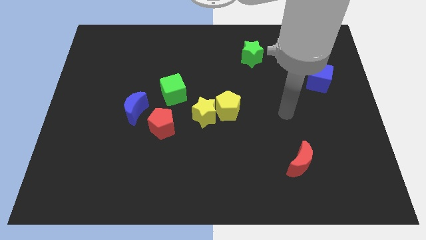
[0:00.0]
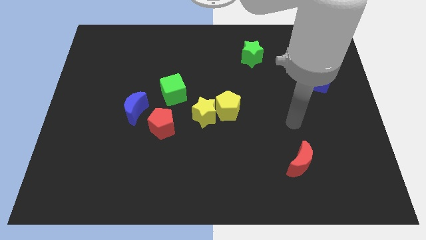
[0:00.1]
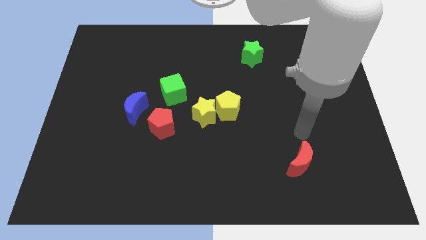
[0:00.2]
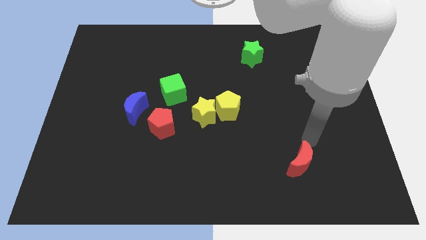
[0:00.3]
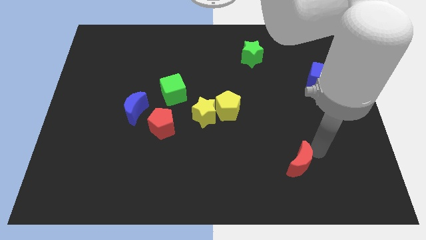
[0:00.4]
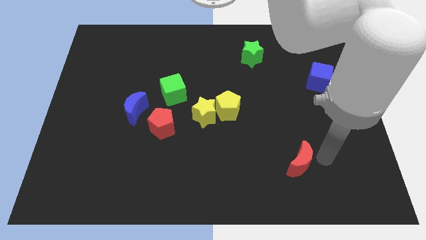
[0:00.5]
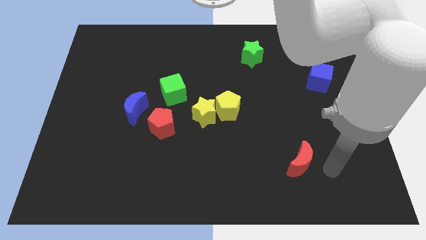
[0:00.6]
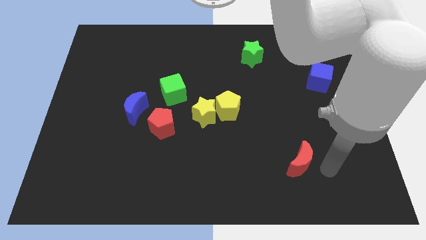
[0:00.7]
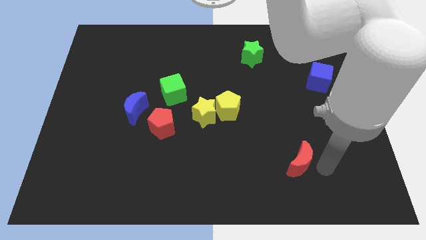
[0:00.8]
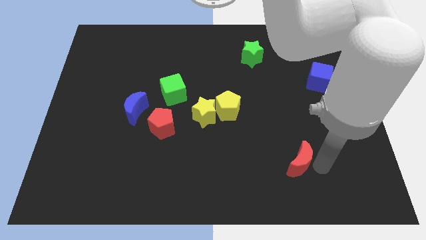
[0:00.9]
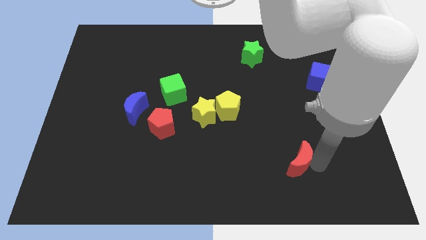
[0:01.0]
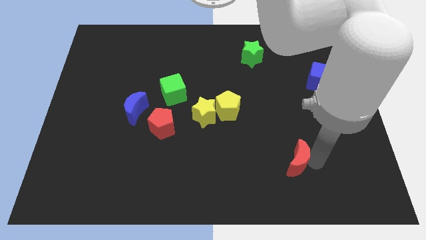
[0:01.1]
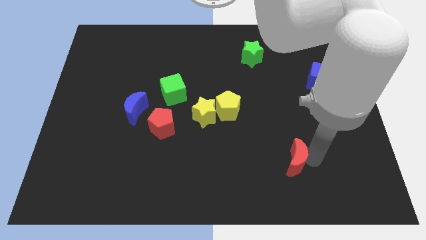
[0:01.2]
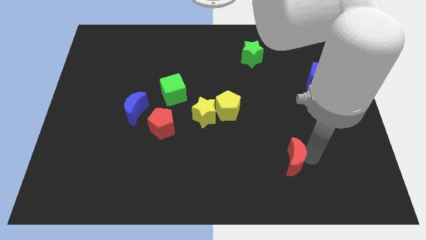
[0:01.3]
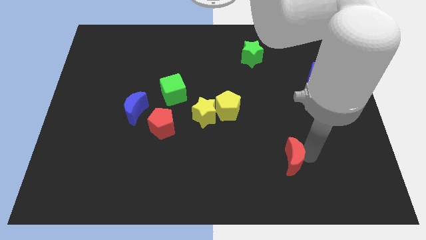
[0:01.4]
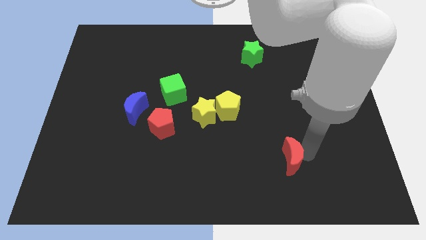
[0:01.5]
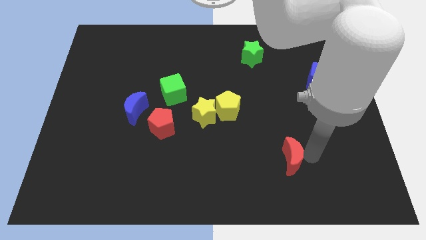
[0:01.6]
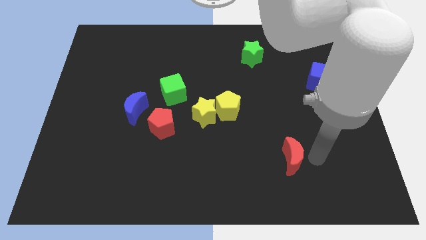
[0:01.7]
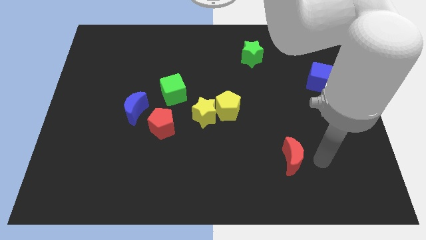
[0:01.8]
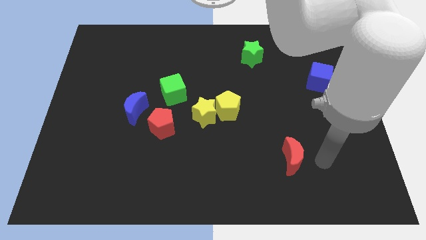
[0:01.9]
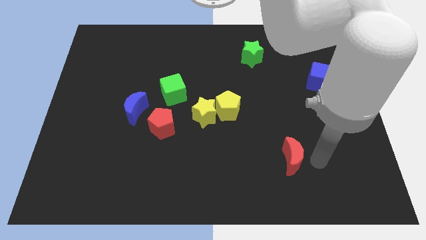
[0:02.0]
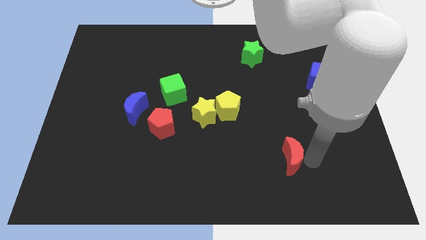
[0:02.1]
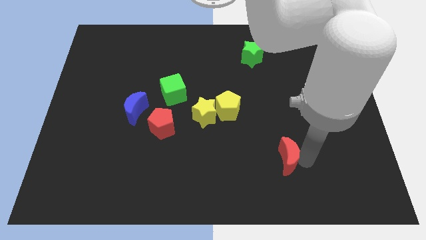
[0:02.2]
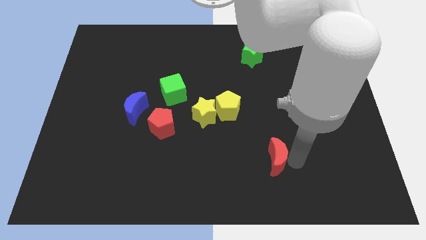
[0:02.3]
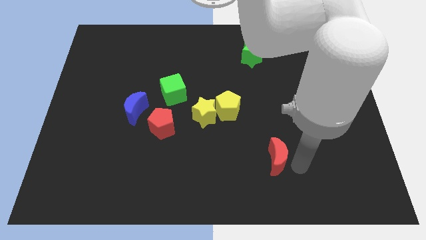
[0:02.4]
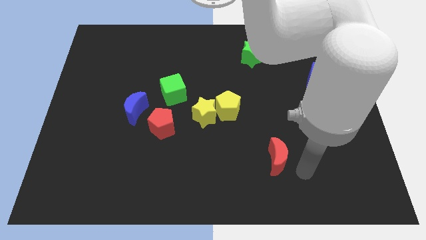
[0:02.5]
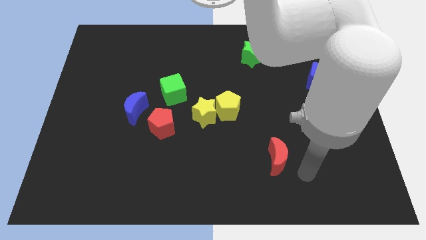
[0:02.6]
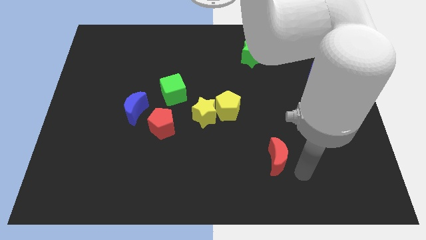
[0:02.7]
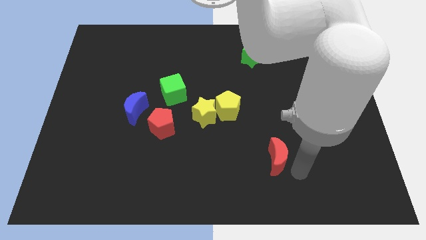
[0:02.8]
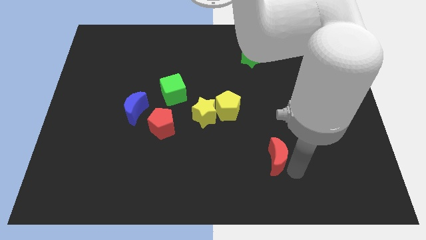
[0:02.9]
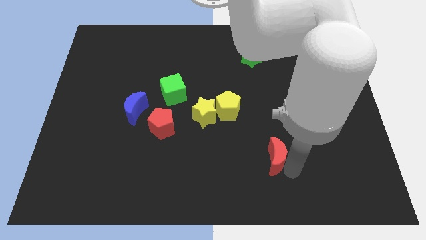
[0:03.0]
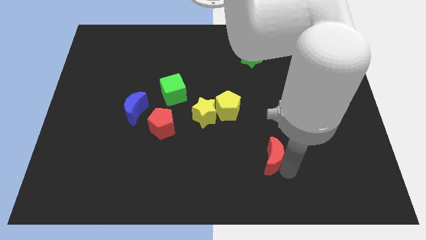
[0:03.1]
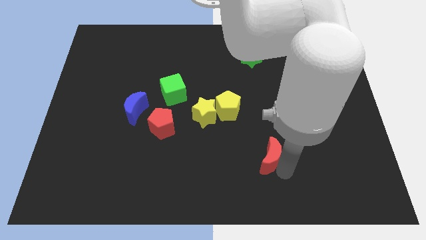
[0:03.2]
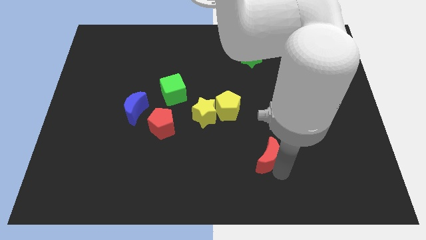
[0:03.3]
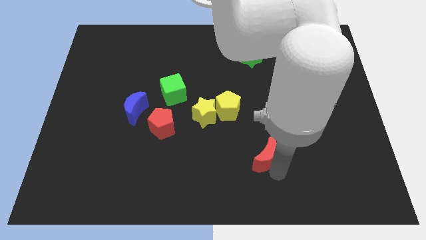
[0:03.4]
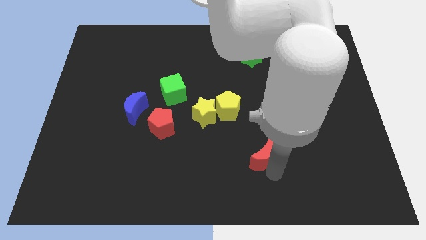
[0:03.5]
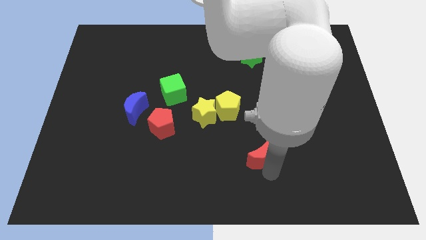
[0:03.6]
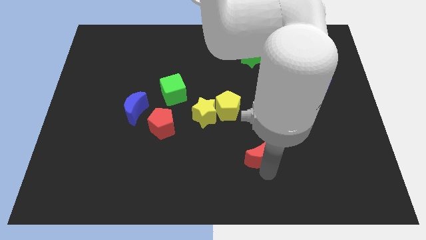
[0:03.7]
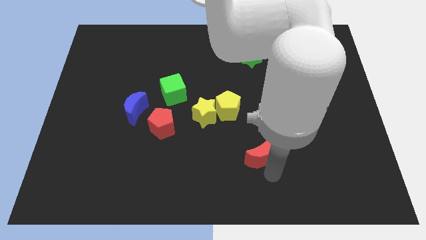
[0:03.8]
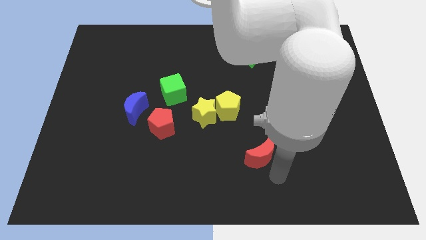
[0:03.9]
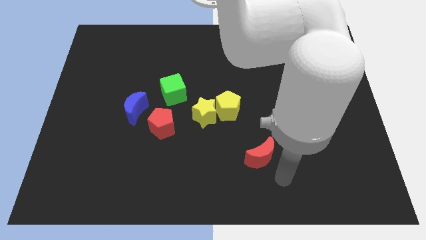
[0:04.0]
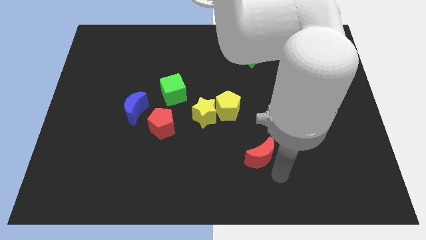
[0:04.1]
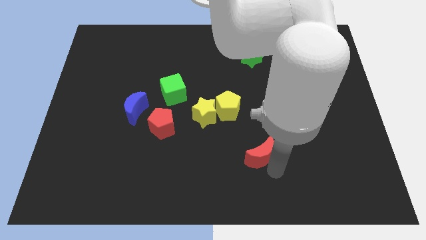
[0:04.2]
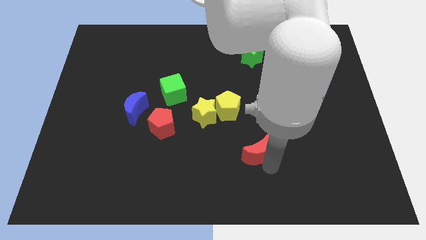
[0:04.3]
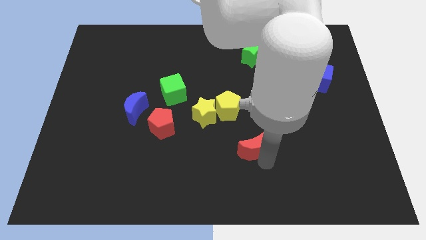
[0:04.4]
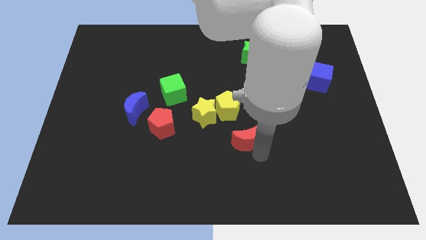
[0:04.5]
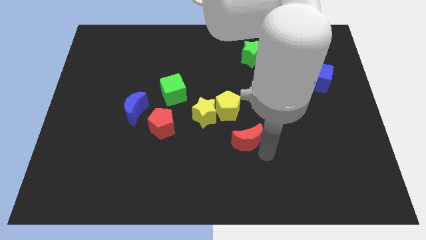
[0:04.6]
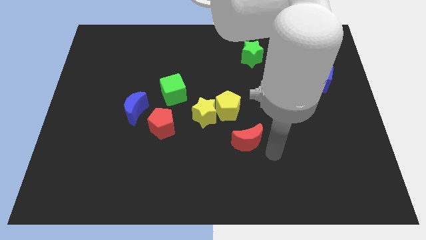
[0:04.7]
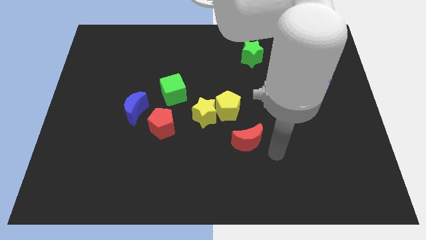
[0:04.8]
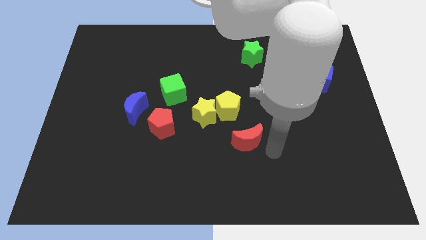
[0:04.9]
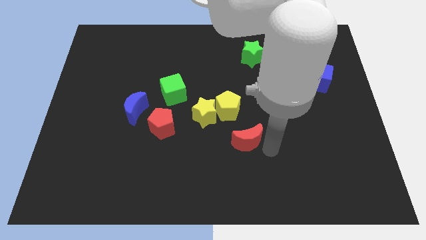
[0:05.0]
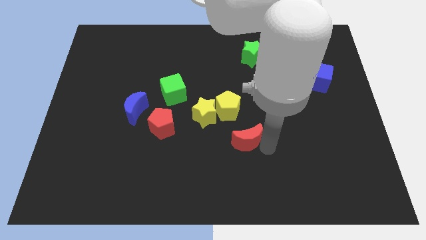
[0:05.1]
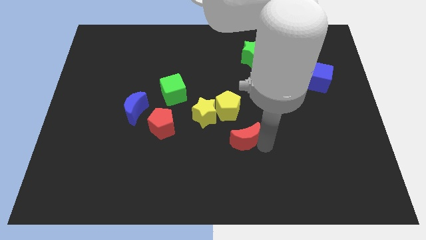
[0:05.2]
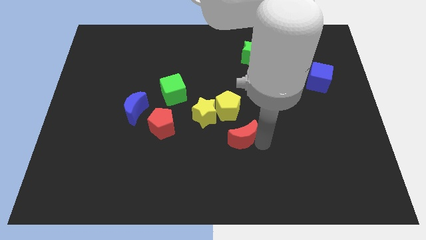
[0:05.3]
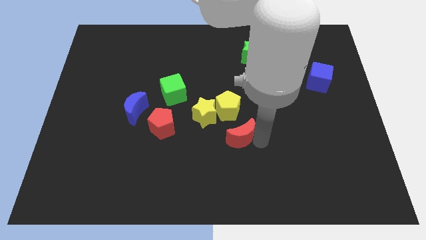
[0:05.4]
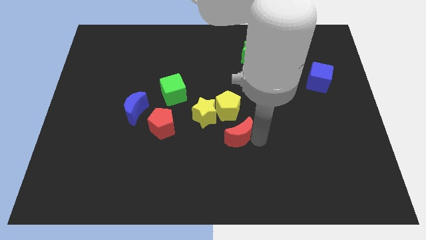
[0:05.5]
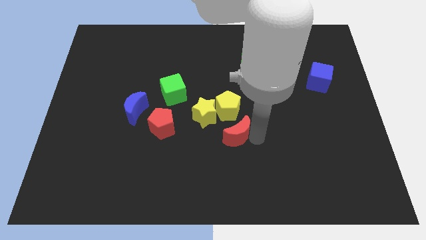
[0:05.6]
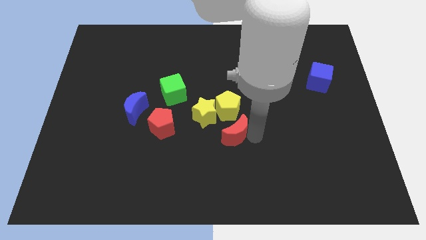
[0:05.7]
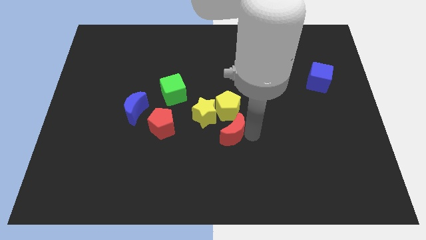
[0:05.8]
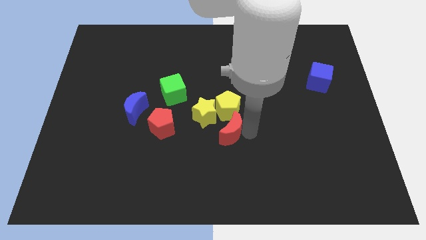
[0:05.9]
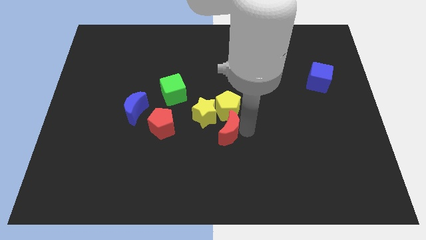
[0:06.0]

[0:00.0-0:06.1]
put the red moon diagonally down and to the left of the yellow pentagon

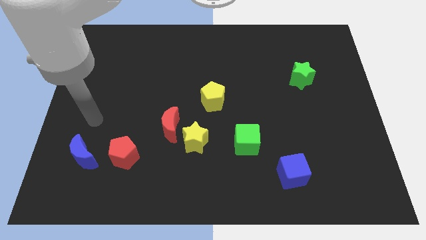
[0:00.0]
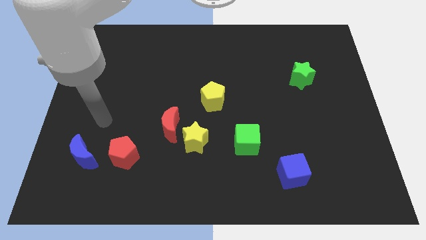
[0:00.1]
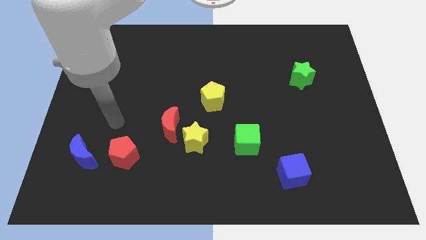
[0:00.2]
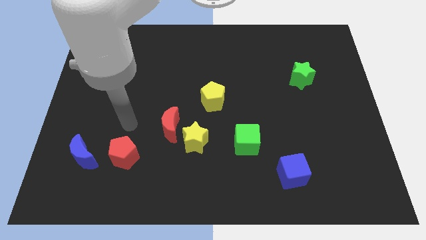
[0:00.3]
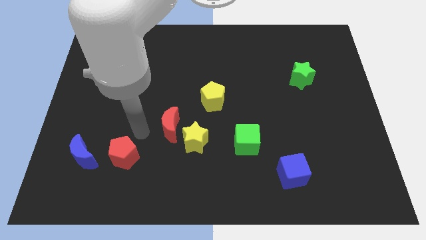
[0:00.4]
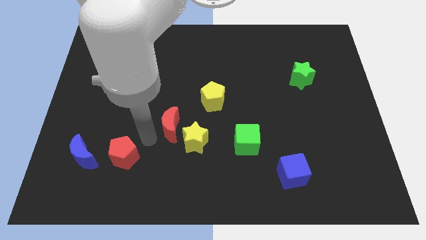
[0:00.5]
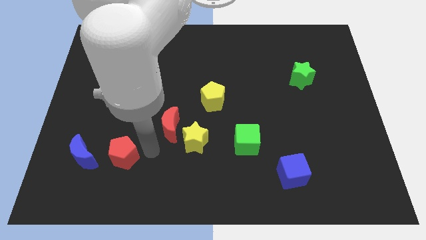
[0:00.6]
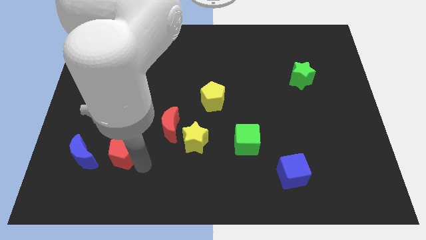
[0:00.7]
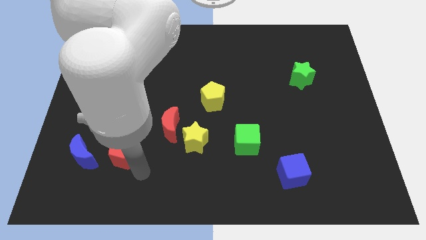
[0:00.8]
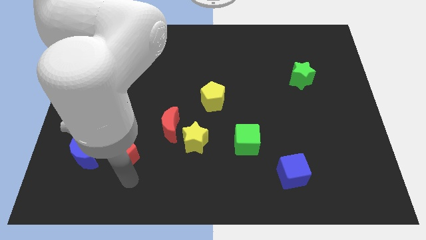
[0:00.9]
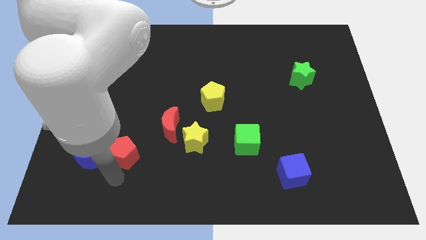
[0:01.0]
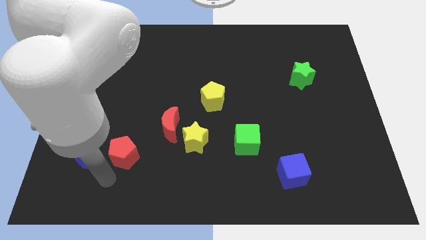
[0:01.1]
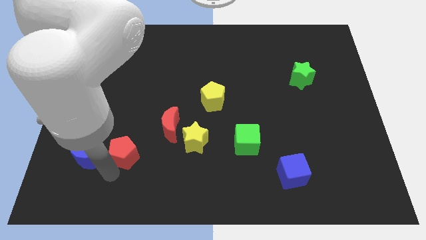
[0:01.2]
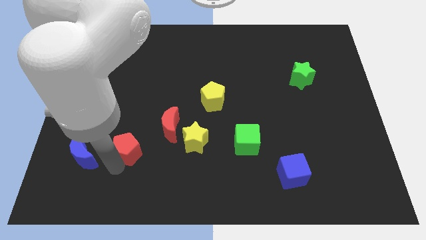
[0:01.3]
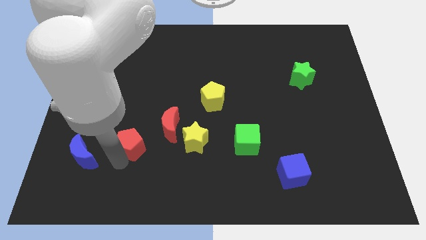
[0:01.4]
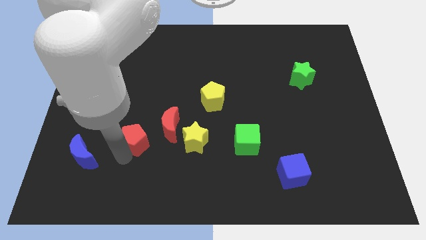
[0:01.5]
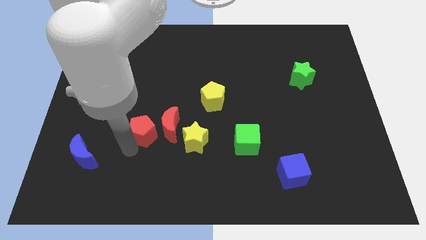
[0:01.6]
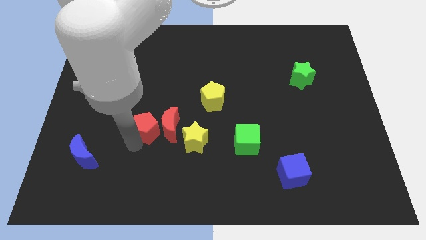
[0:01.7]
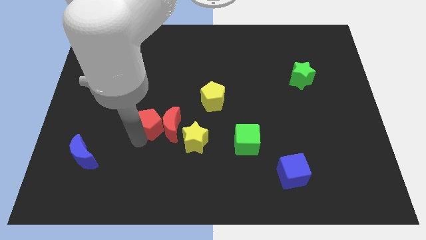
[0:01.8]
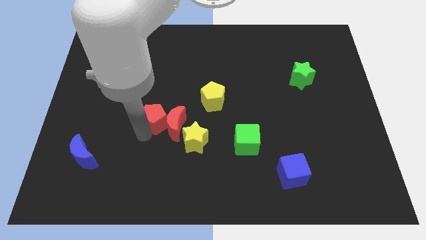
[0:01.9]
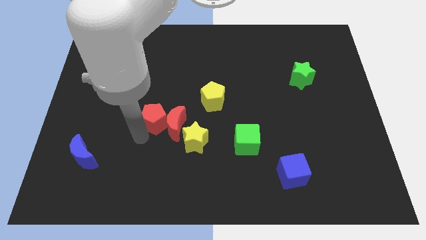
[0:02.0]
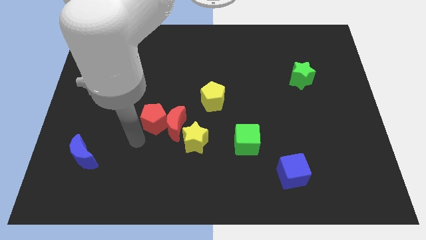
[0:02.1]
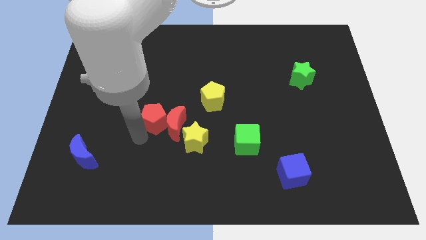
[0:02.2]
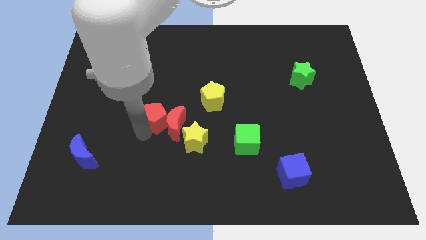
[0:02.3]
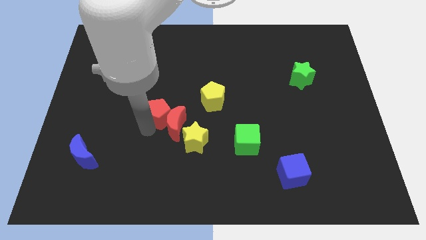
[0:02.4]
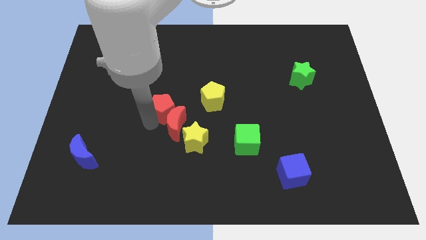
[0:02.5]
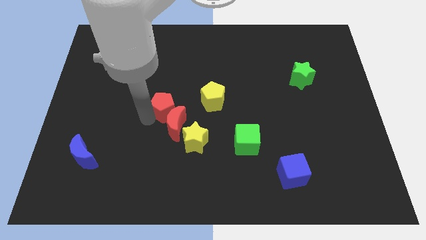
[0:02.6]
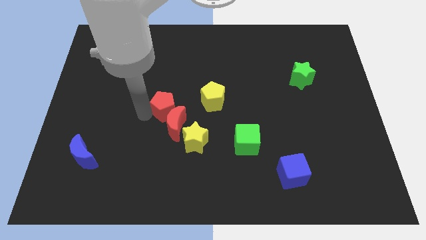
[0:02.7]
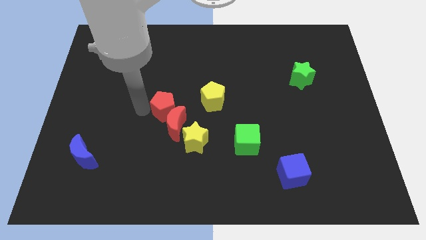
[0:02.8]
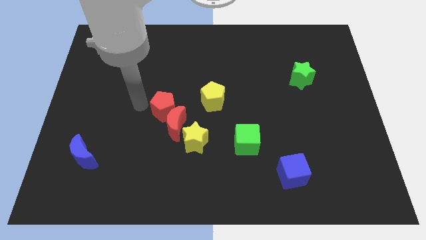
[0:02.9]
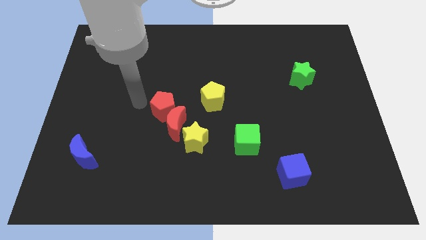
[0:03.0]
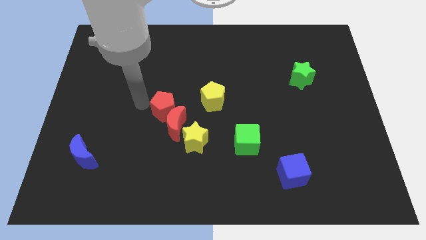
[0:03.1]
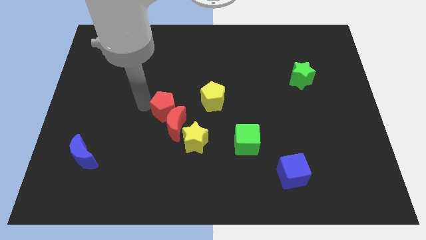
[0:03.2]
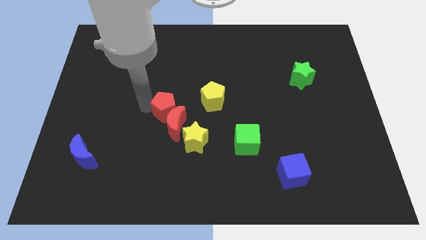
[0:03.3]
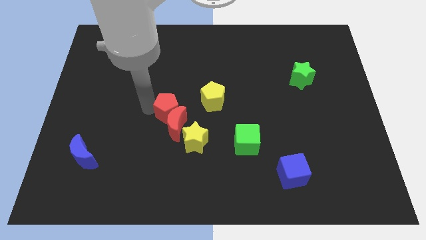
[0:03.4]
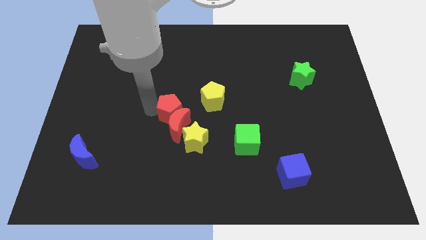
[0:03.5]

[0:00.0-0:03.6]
slide the red pentagon diagonally down and to the left of the yellow pentagon
